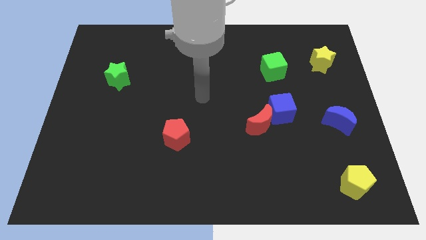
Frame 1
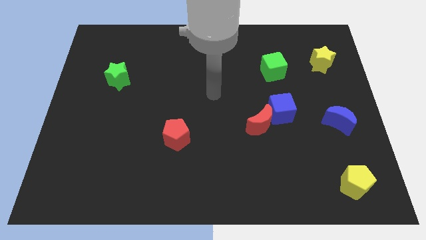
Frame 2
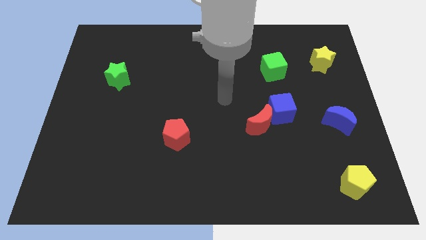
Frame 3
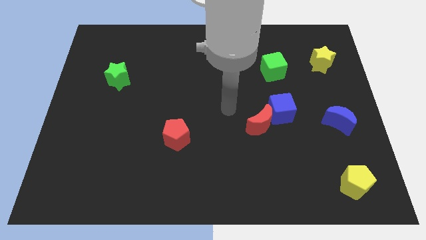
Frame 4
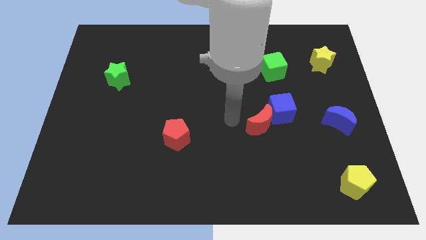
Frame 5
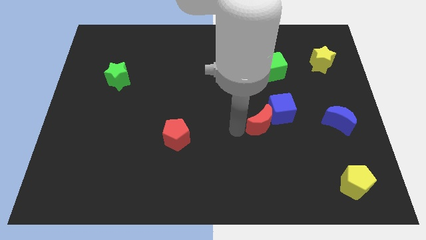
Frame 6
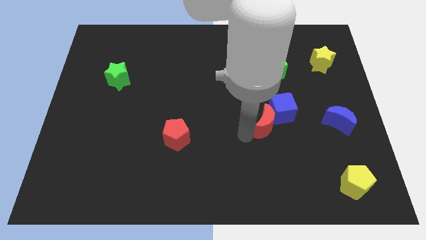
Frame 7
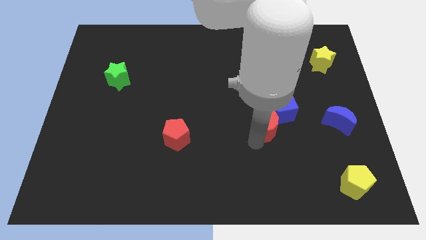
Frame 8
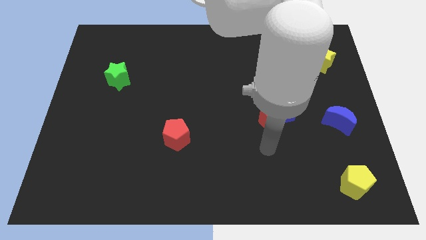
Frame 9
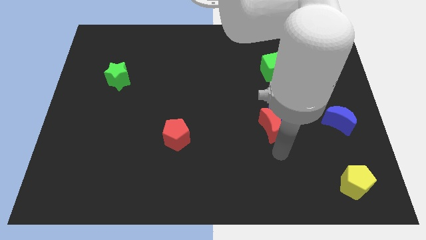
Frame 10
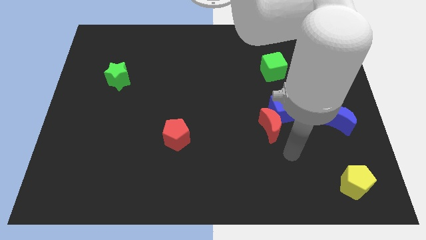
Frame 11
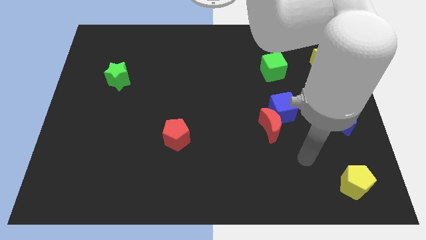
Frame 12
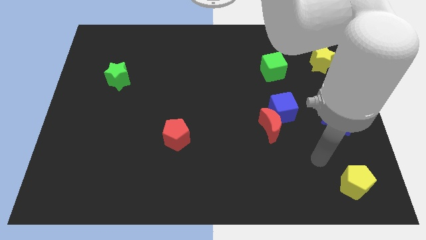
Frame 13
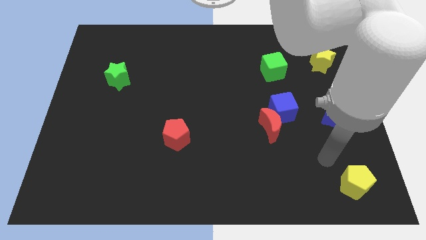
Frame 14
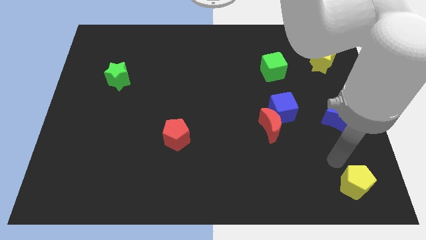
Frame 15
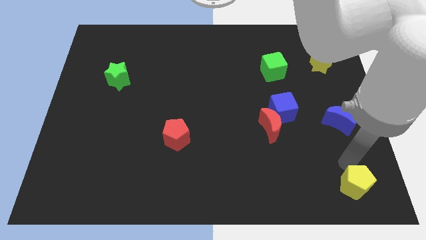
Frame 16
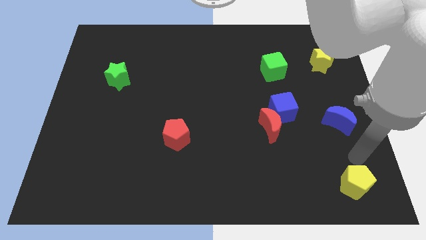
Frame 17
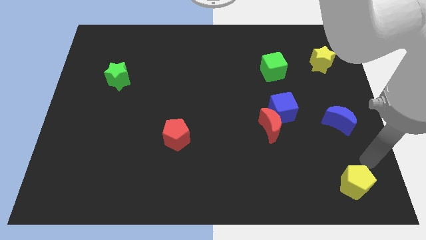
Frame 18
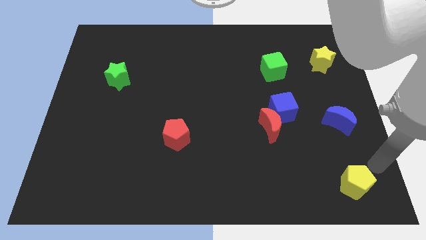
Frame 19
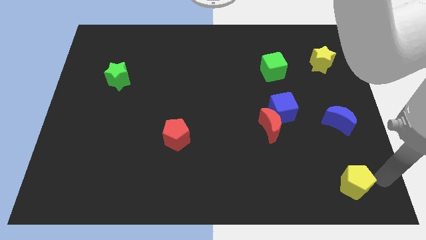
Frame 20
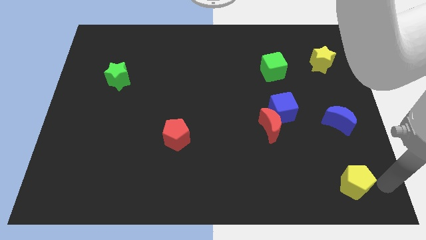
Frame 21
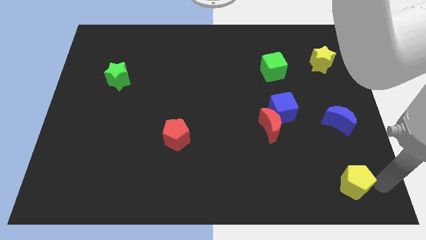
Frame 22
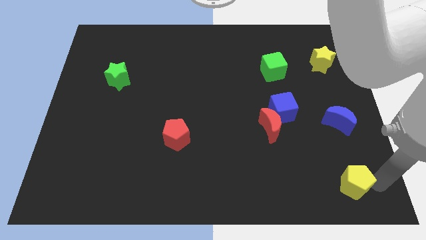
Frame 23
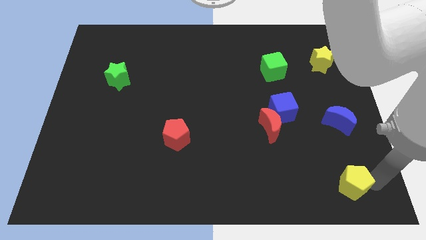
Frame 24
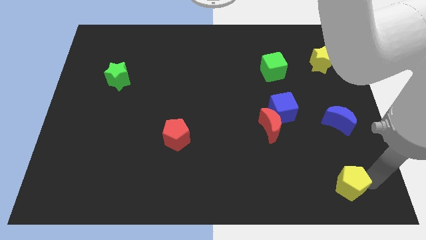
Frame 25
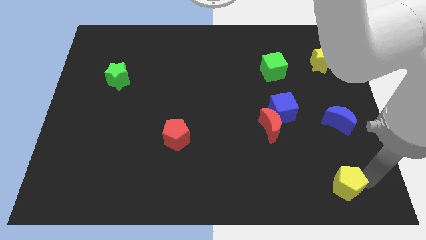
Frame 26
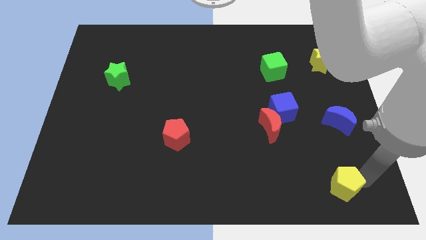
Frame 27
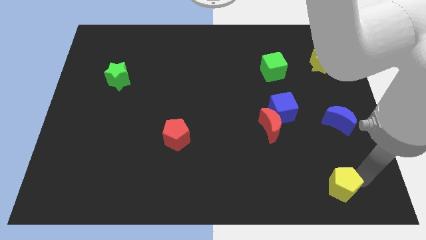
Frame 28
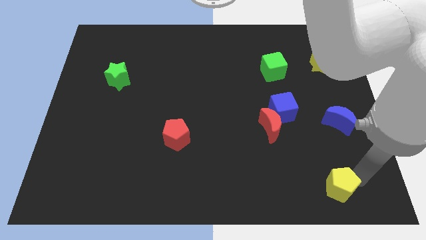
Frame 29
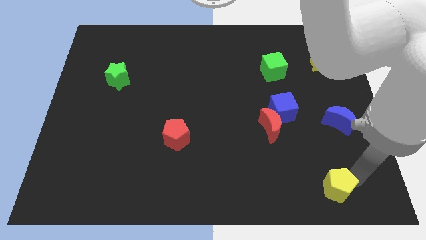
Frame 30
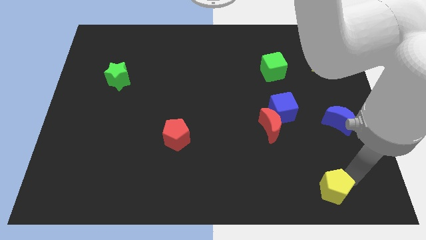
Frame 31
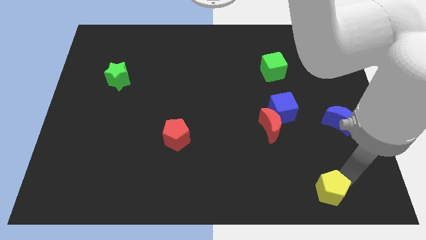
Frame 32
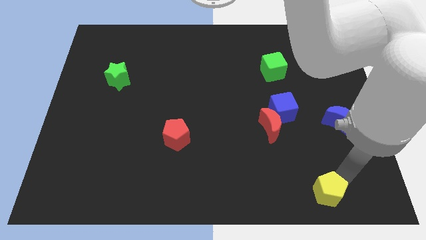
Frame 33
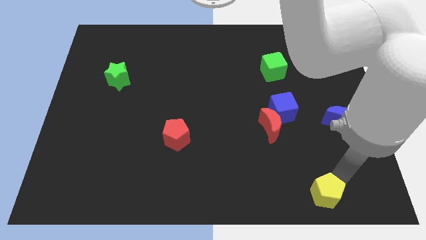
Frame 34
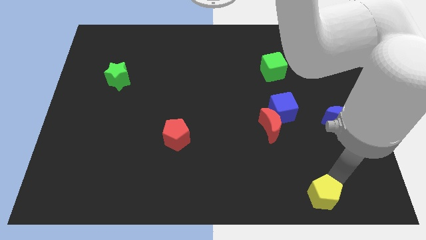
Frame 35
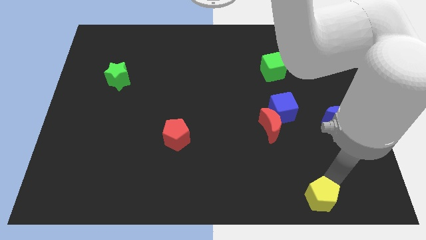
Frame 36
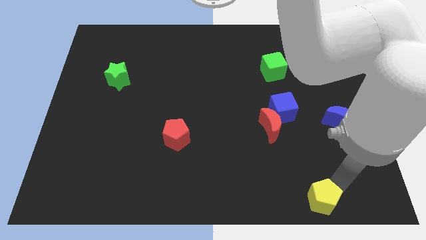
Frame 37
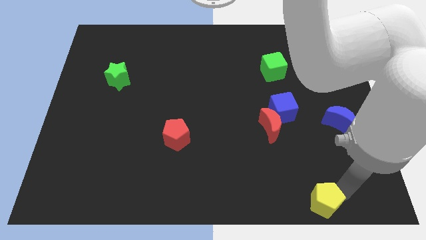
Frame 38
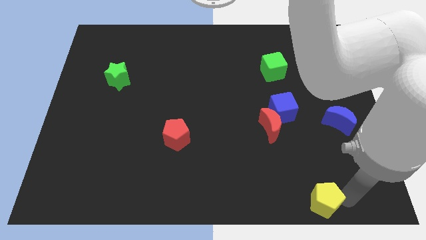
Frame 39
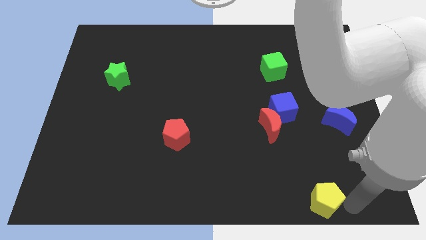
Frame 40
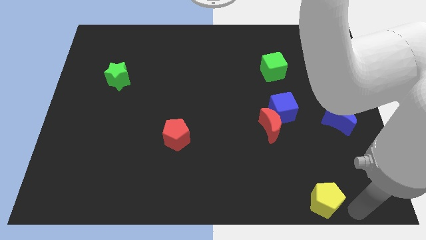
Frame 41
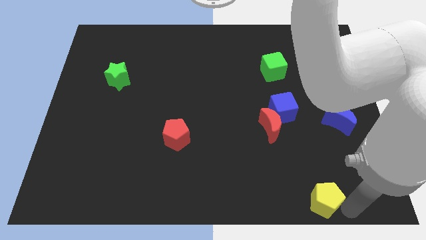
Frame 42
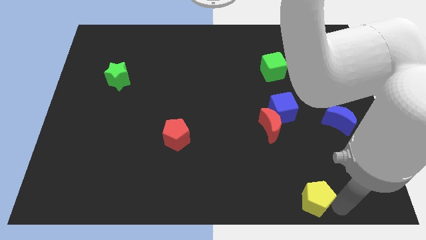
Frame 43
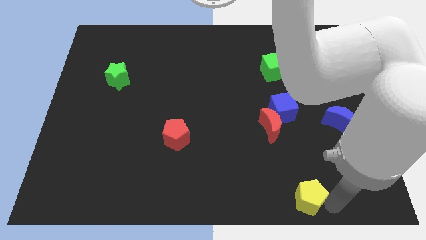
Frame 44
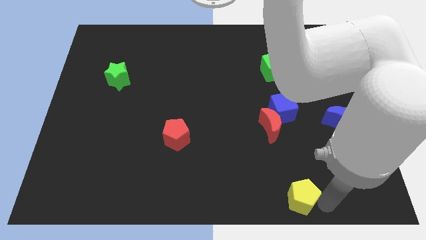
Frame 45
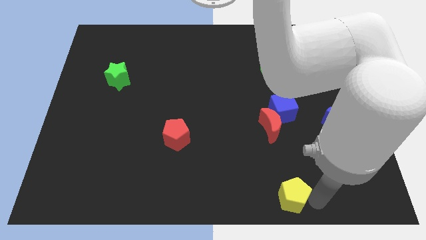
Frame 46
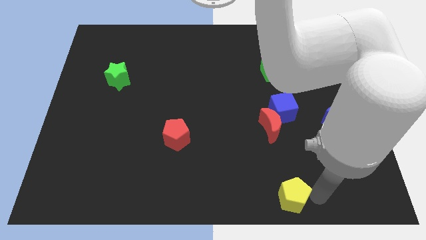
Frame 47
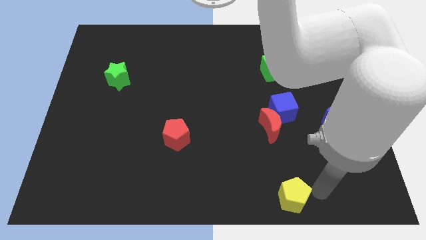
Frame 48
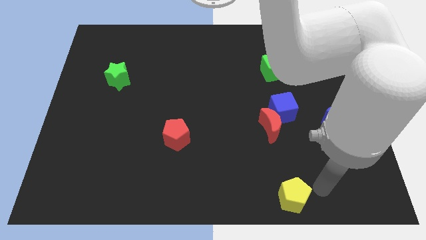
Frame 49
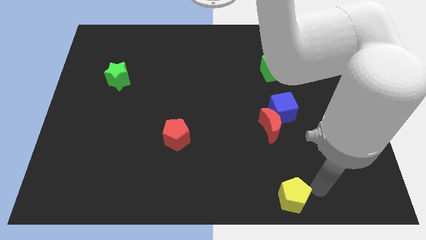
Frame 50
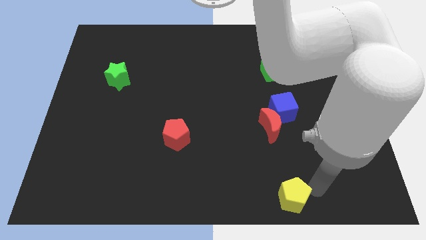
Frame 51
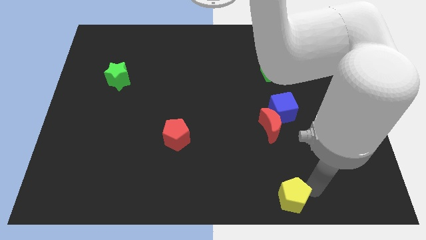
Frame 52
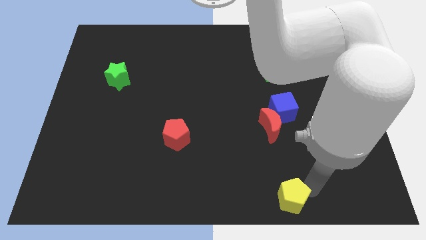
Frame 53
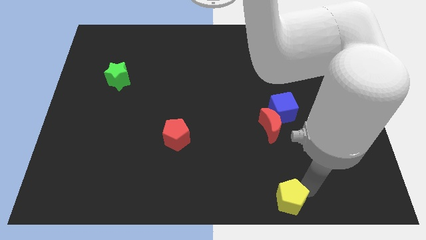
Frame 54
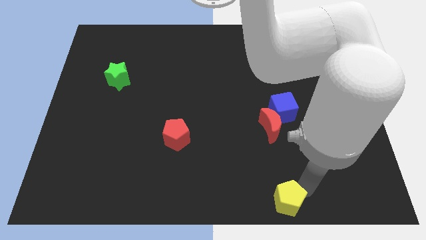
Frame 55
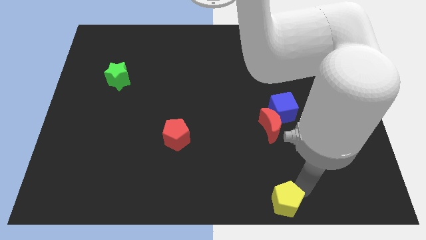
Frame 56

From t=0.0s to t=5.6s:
move the yellow pentagon to the bottom

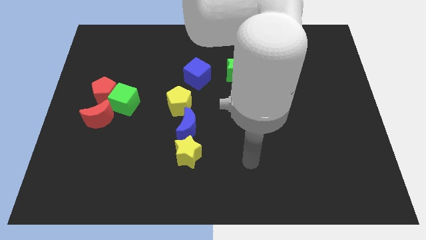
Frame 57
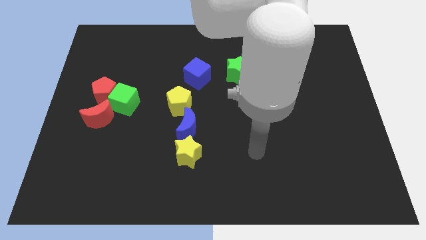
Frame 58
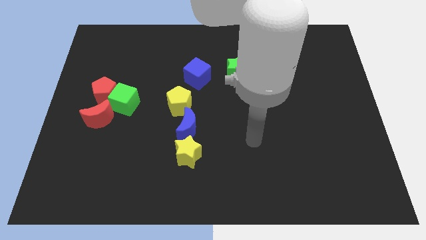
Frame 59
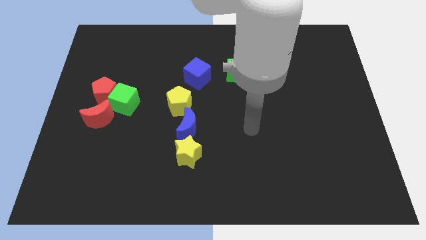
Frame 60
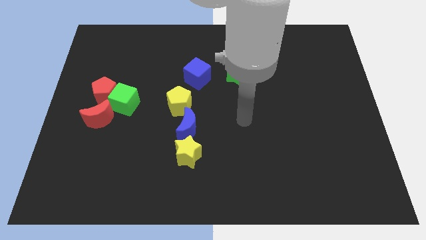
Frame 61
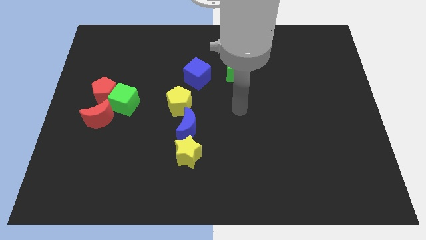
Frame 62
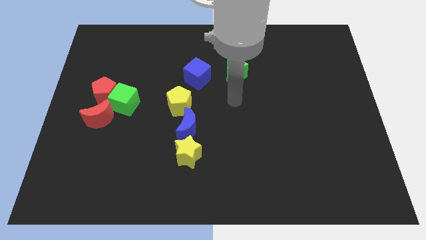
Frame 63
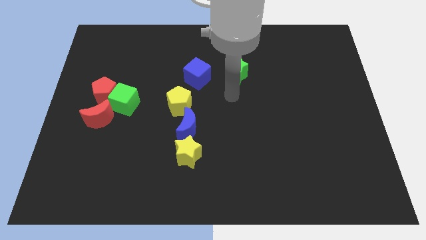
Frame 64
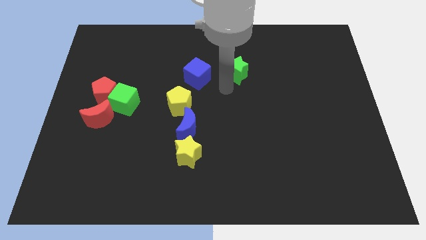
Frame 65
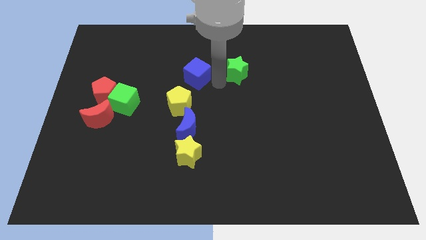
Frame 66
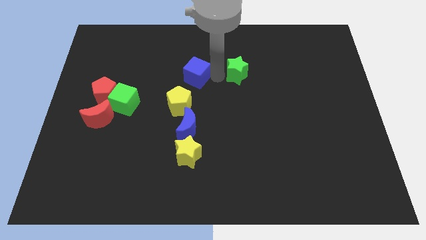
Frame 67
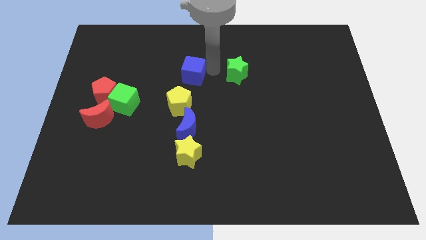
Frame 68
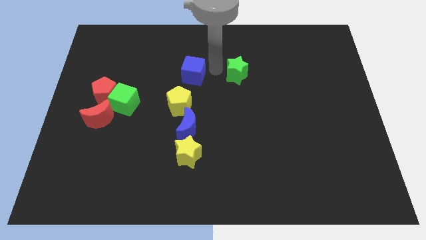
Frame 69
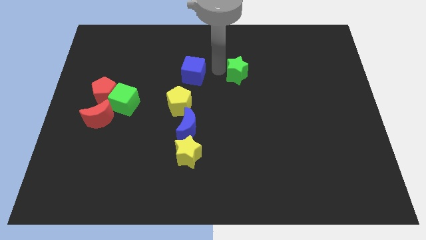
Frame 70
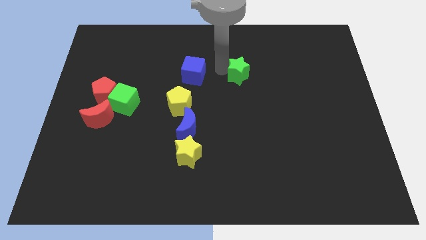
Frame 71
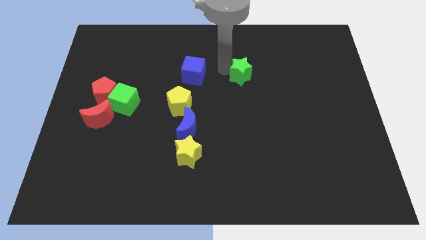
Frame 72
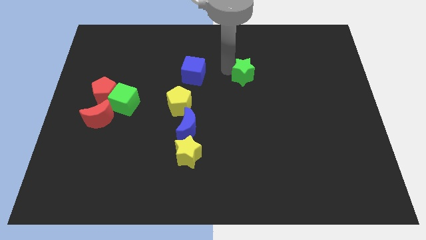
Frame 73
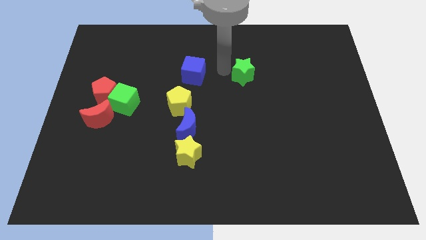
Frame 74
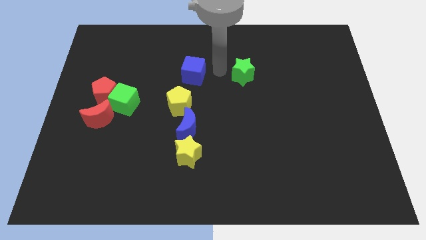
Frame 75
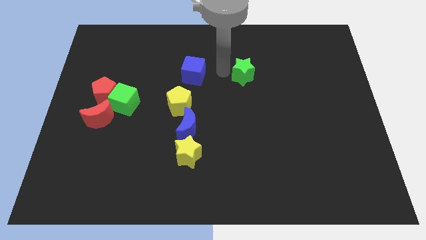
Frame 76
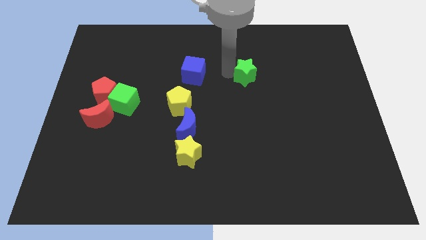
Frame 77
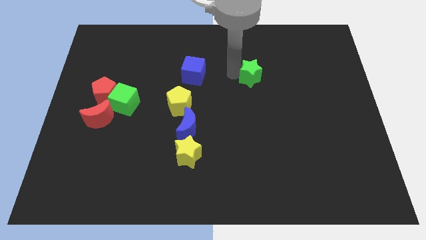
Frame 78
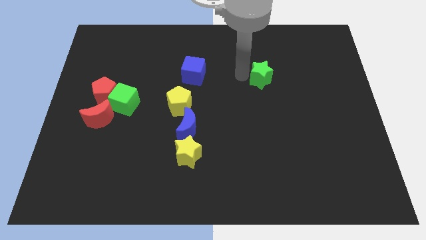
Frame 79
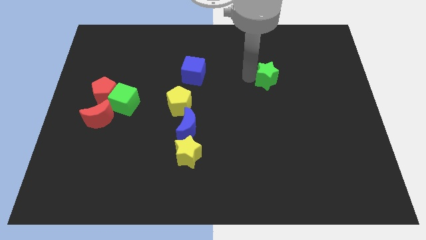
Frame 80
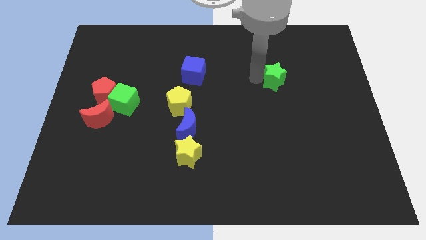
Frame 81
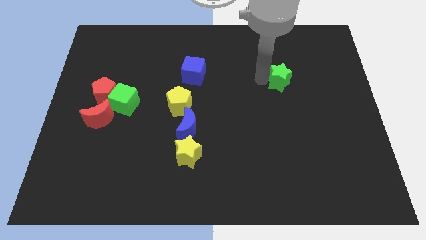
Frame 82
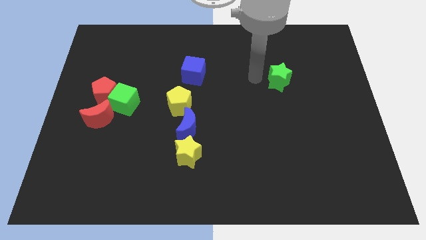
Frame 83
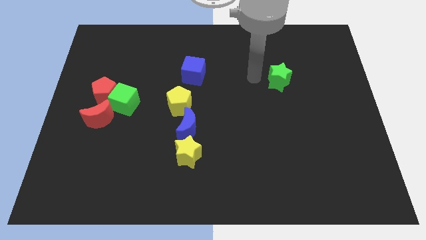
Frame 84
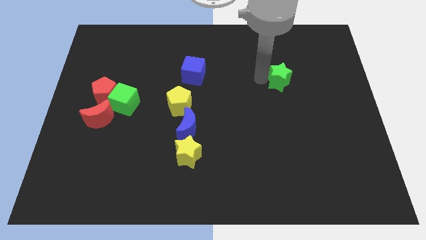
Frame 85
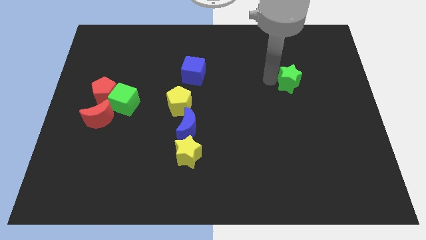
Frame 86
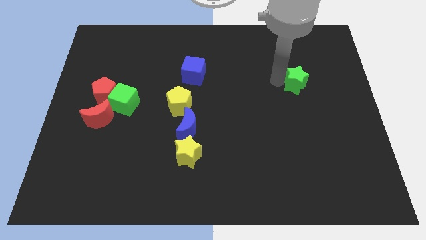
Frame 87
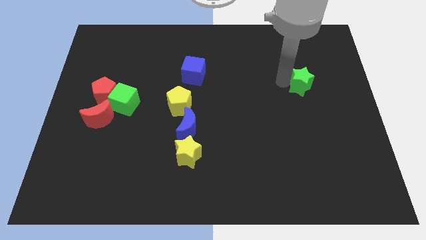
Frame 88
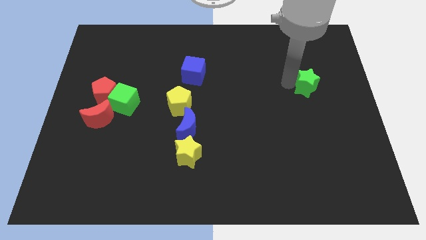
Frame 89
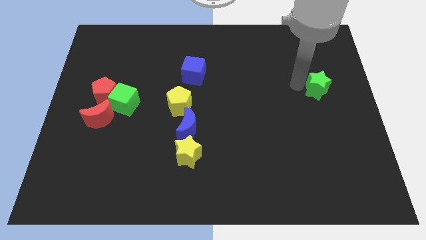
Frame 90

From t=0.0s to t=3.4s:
put the green star to the right side
